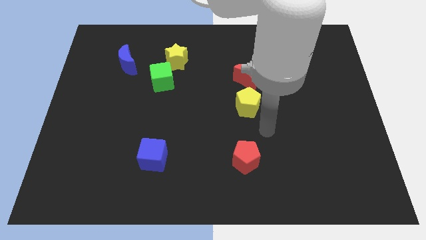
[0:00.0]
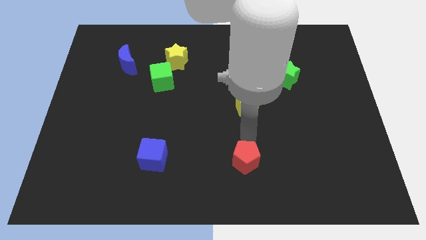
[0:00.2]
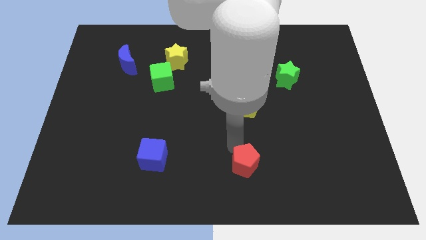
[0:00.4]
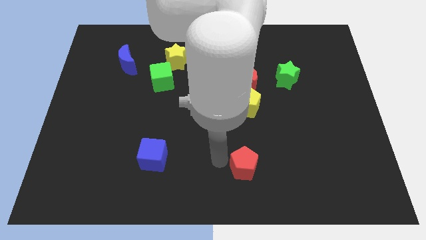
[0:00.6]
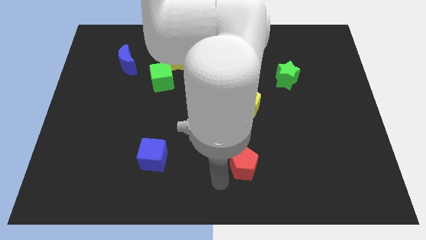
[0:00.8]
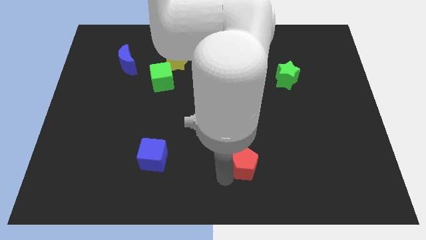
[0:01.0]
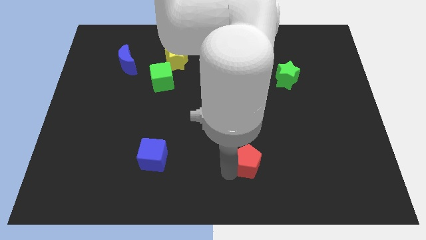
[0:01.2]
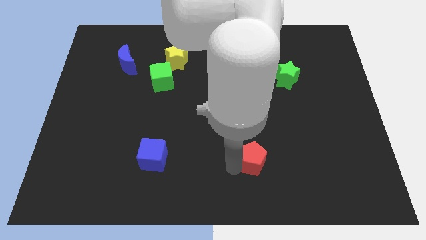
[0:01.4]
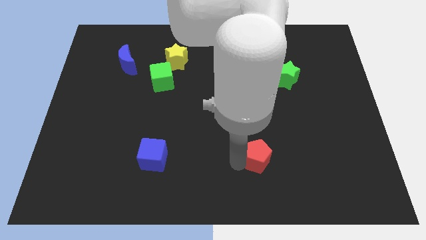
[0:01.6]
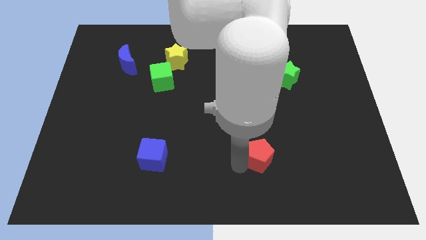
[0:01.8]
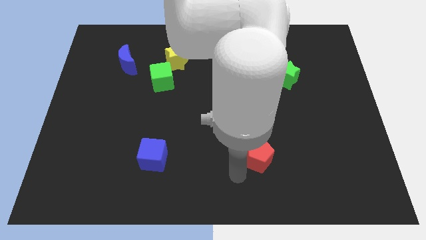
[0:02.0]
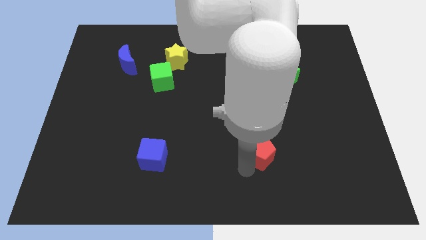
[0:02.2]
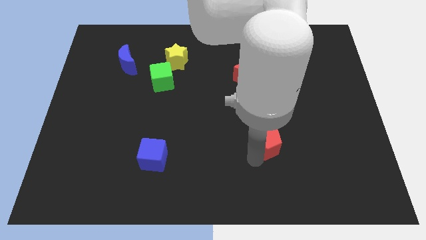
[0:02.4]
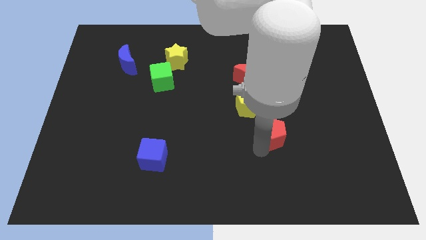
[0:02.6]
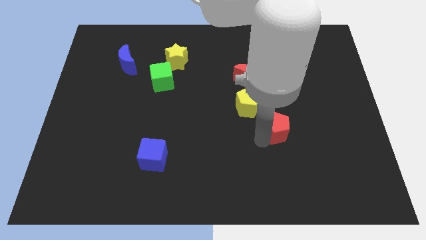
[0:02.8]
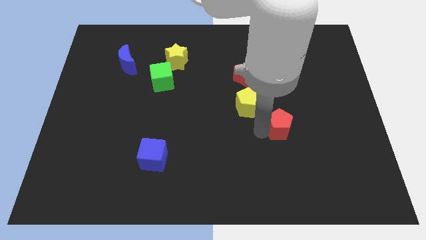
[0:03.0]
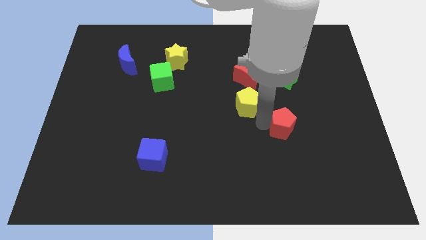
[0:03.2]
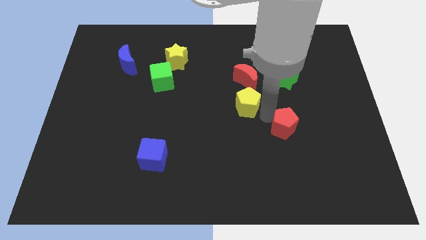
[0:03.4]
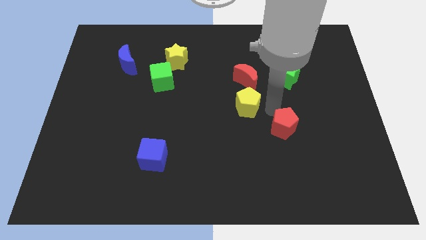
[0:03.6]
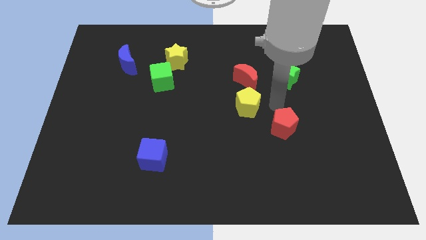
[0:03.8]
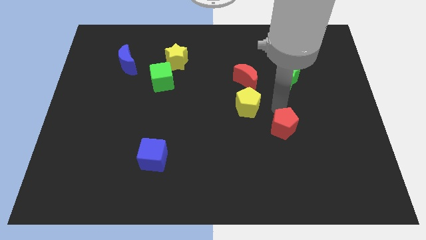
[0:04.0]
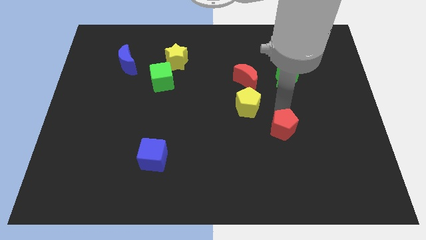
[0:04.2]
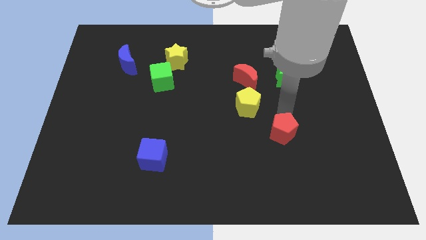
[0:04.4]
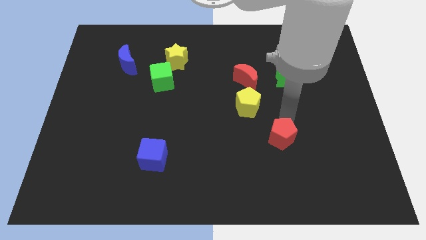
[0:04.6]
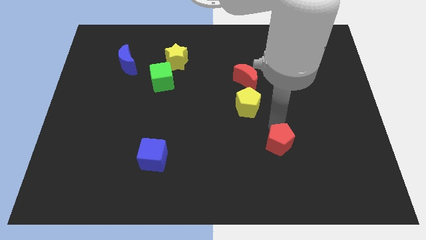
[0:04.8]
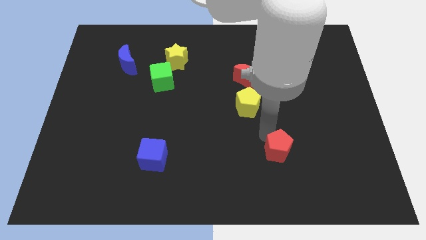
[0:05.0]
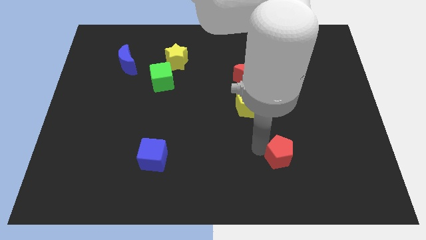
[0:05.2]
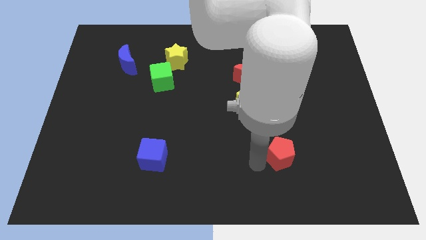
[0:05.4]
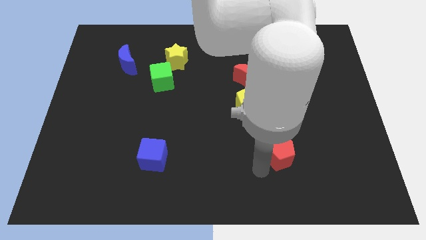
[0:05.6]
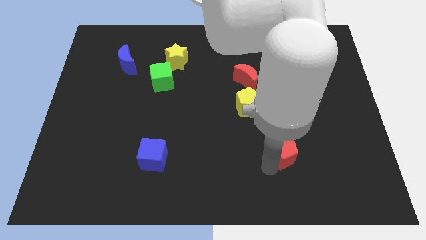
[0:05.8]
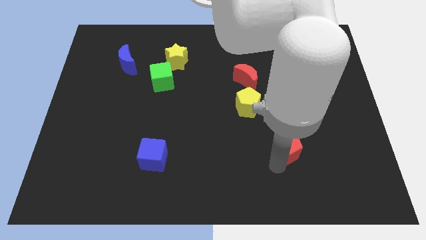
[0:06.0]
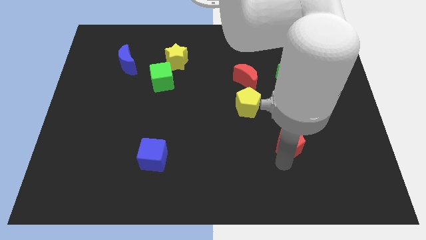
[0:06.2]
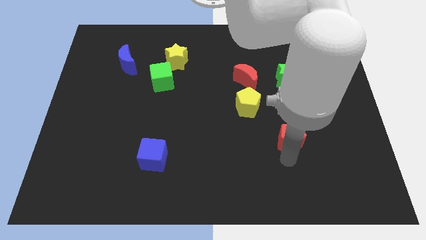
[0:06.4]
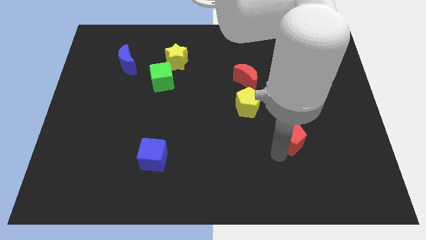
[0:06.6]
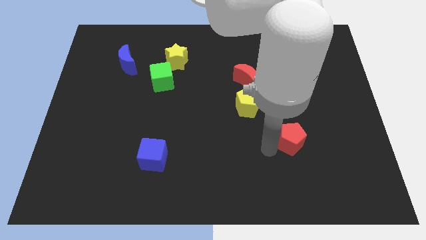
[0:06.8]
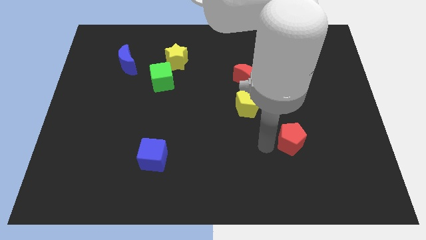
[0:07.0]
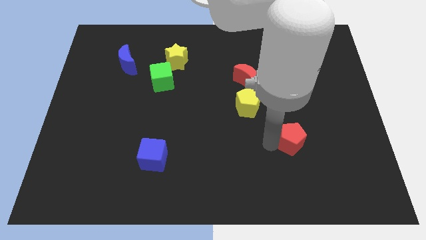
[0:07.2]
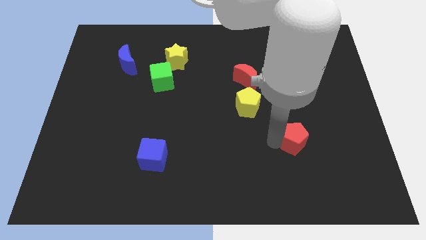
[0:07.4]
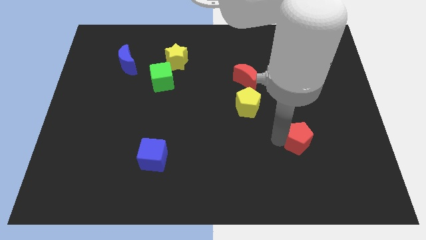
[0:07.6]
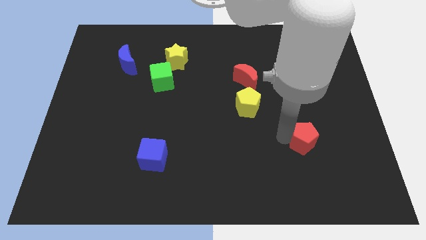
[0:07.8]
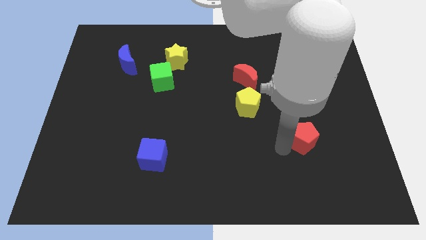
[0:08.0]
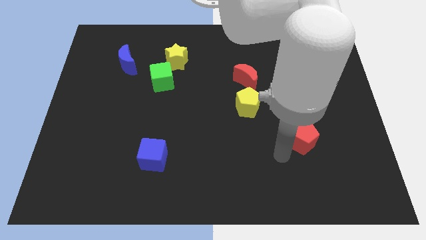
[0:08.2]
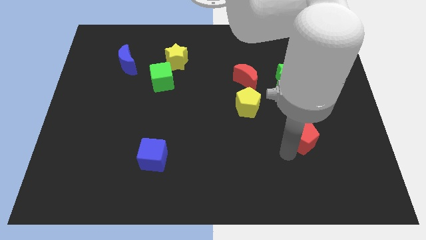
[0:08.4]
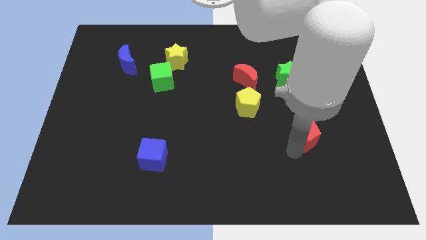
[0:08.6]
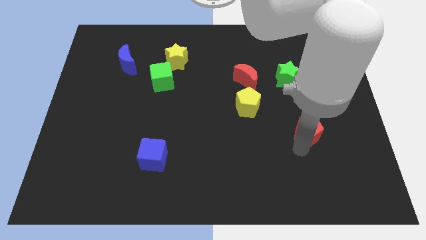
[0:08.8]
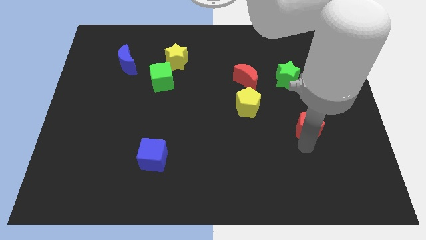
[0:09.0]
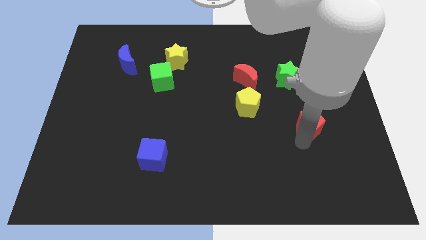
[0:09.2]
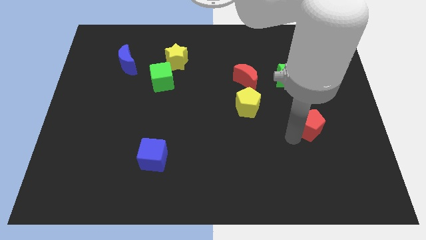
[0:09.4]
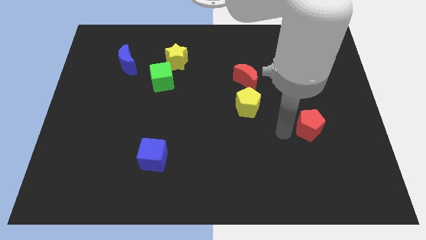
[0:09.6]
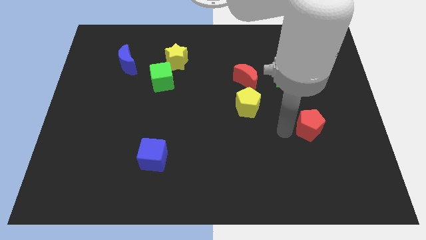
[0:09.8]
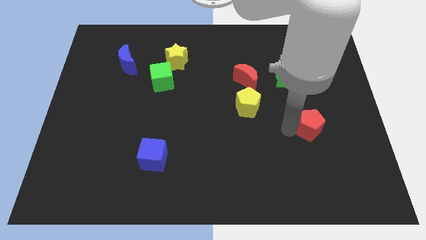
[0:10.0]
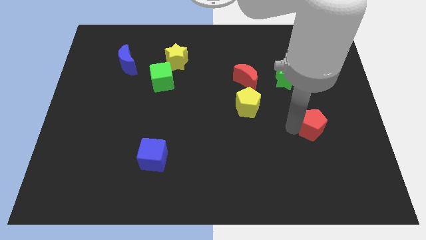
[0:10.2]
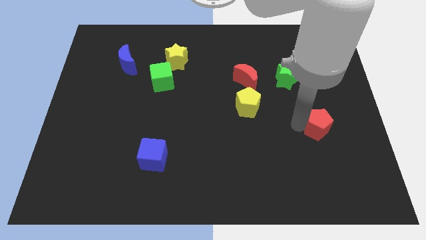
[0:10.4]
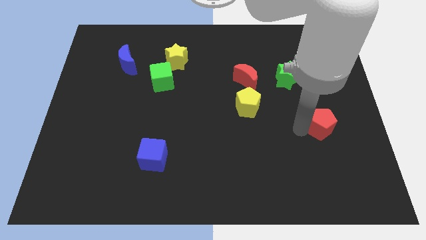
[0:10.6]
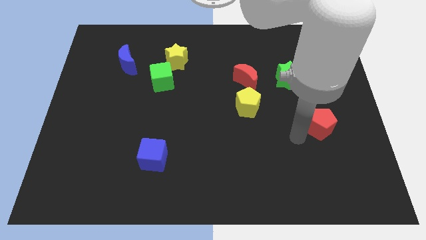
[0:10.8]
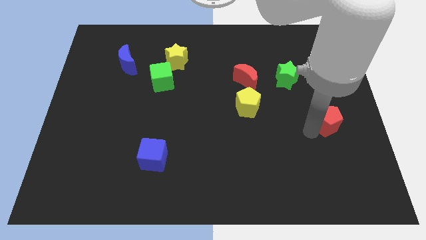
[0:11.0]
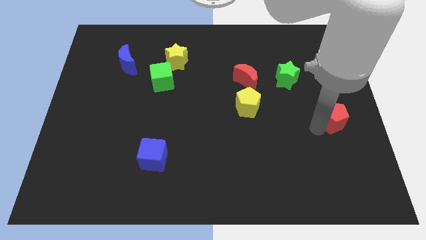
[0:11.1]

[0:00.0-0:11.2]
put the red pentagon to the center right

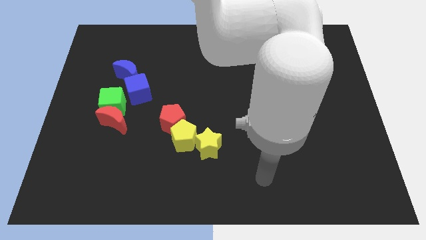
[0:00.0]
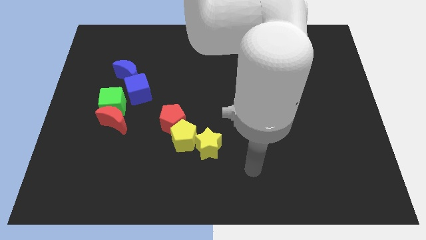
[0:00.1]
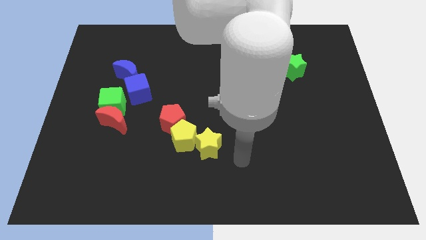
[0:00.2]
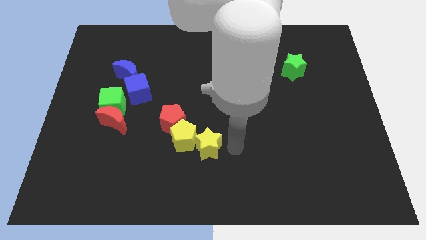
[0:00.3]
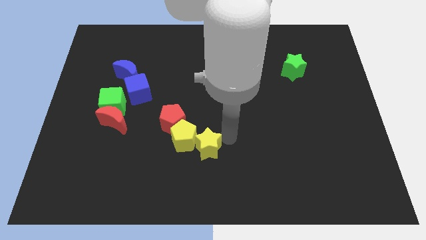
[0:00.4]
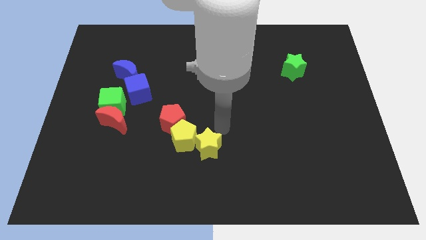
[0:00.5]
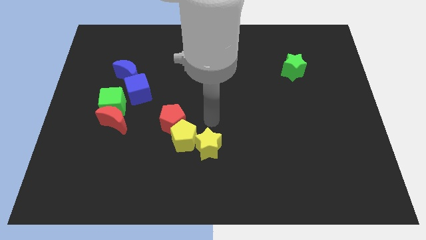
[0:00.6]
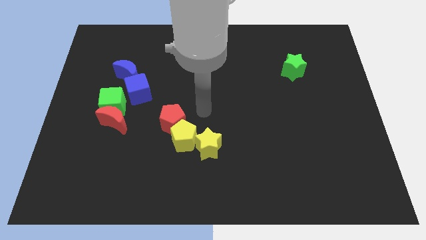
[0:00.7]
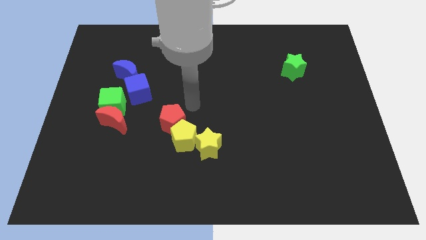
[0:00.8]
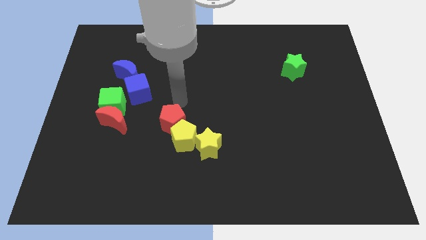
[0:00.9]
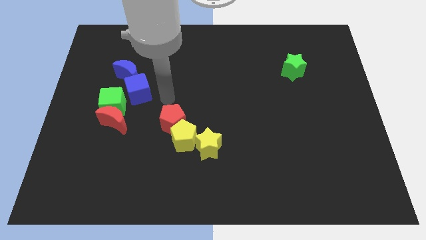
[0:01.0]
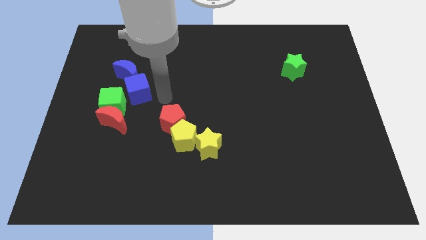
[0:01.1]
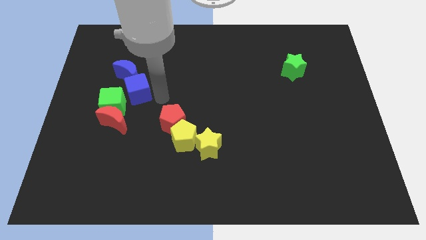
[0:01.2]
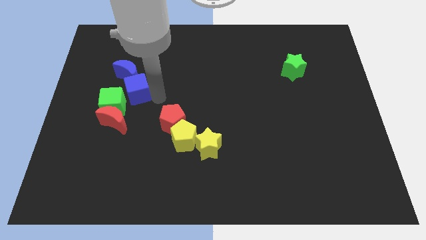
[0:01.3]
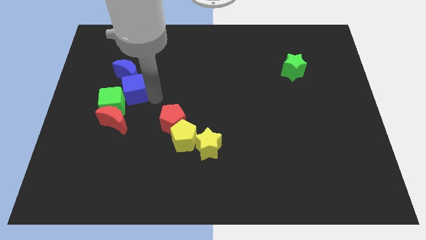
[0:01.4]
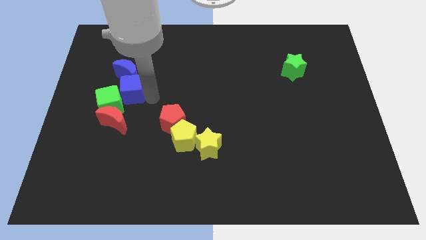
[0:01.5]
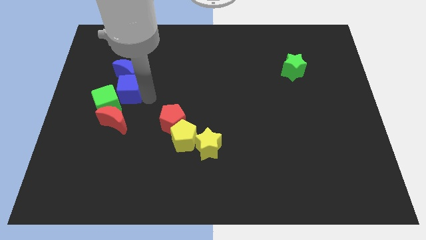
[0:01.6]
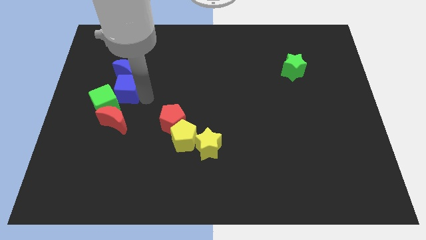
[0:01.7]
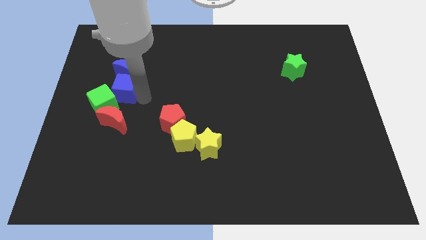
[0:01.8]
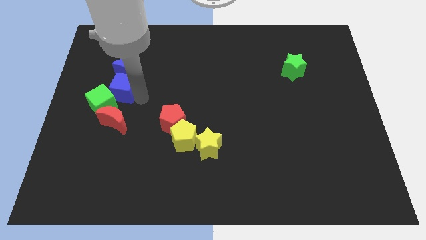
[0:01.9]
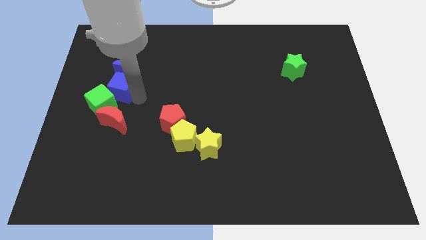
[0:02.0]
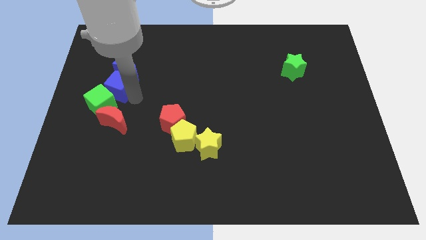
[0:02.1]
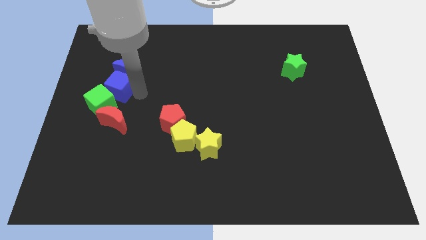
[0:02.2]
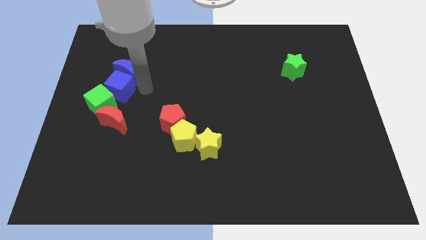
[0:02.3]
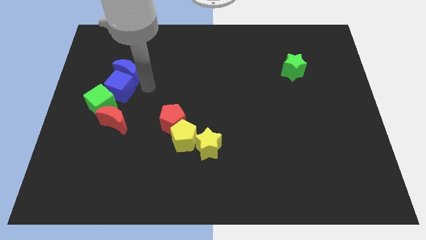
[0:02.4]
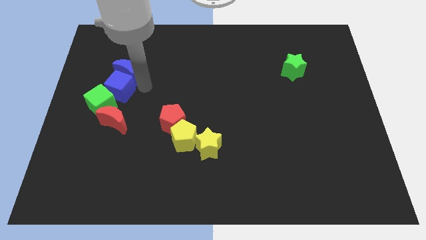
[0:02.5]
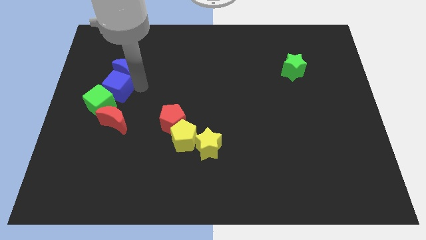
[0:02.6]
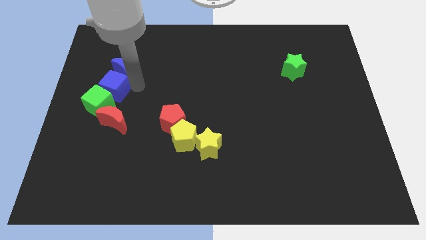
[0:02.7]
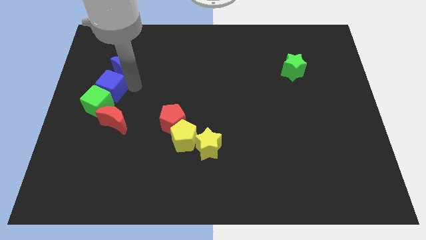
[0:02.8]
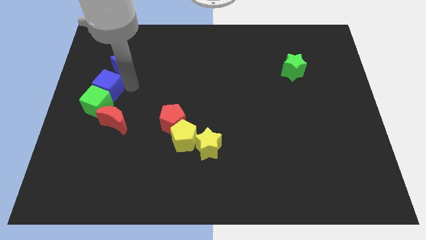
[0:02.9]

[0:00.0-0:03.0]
slide the blue cube to the left side of the board
